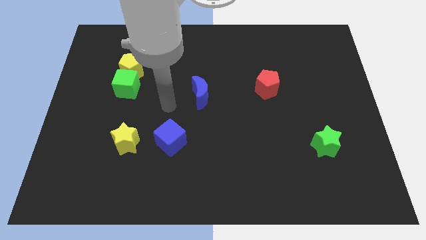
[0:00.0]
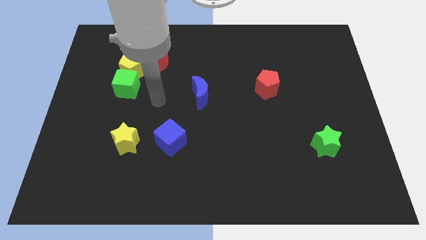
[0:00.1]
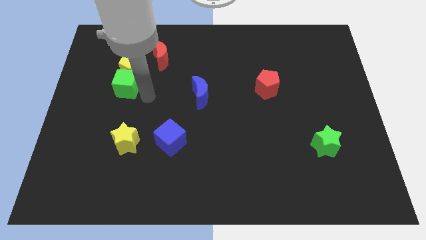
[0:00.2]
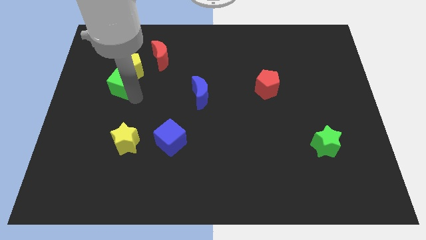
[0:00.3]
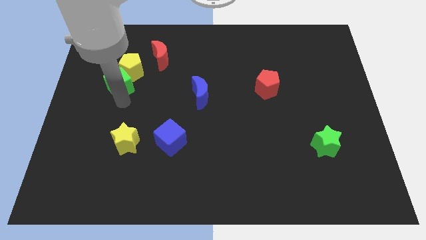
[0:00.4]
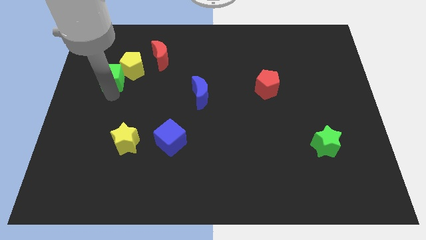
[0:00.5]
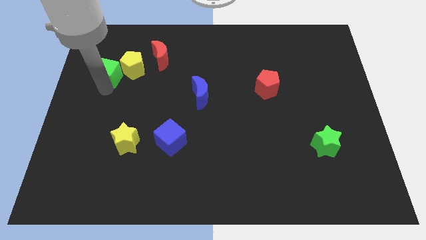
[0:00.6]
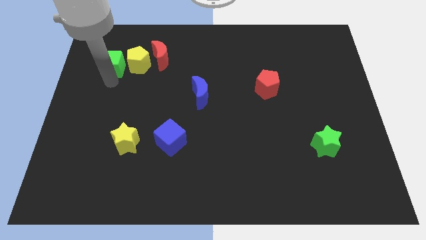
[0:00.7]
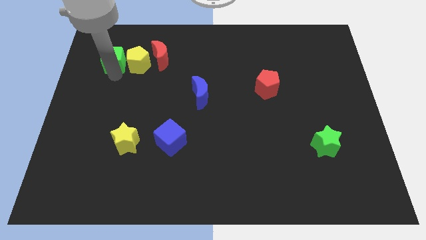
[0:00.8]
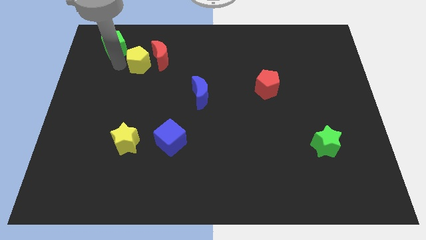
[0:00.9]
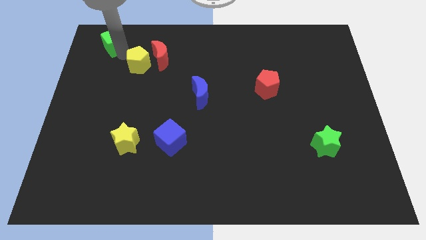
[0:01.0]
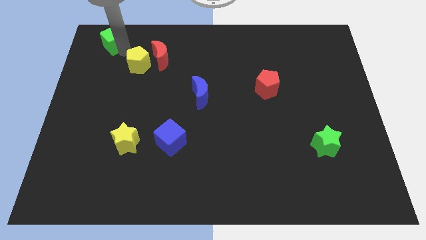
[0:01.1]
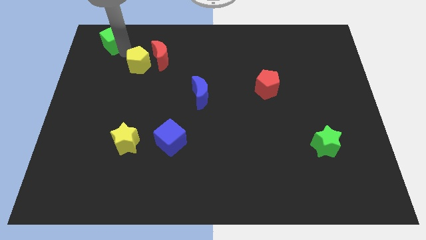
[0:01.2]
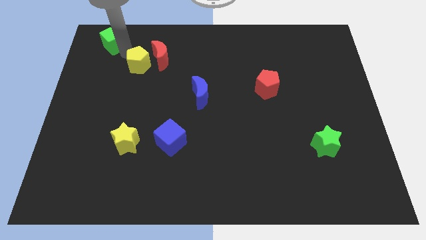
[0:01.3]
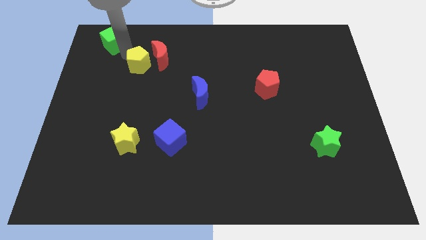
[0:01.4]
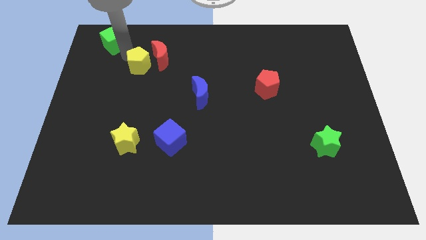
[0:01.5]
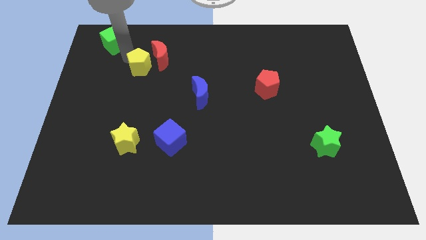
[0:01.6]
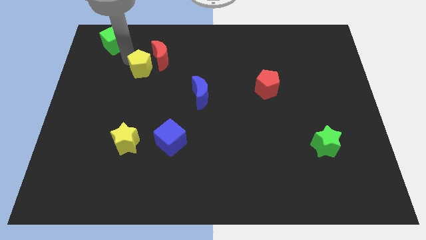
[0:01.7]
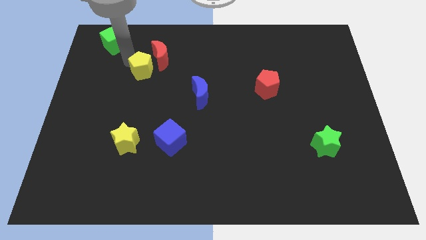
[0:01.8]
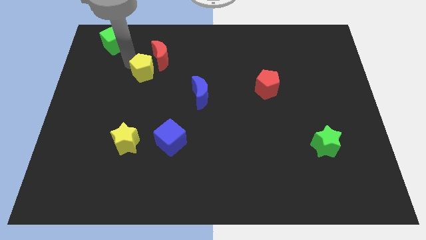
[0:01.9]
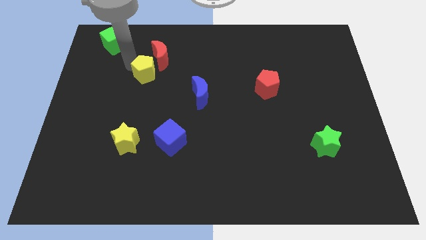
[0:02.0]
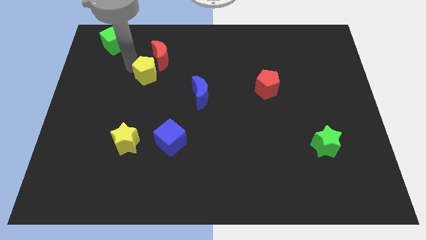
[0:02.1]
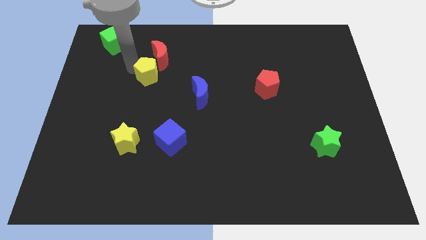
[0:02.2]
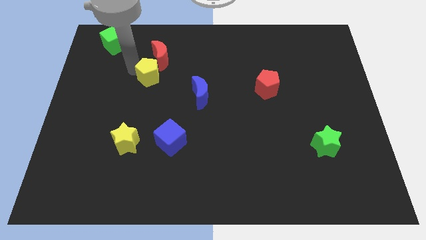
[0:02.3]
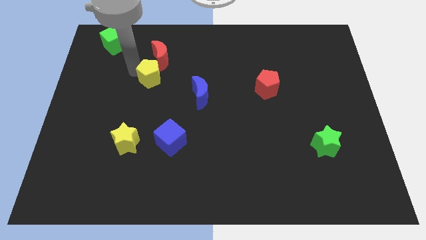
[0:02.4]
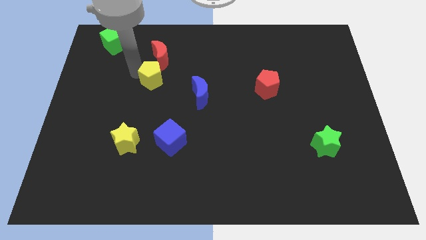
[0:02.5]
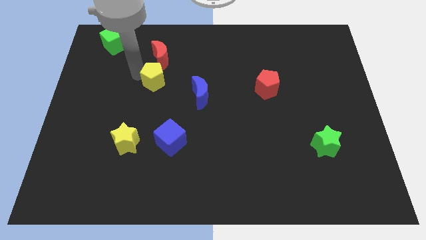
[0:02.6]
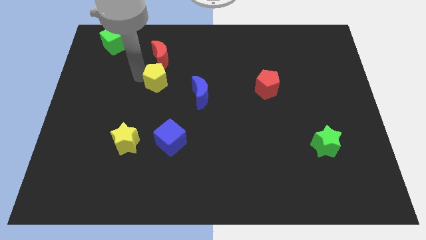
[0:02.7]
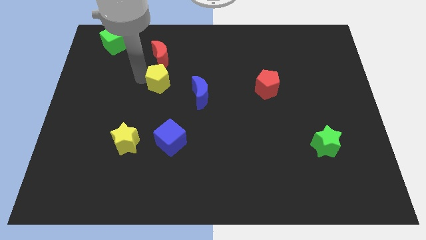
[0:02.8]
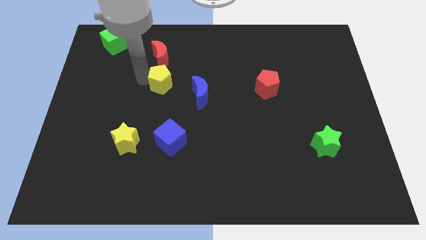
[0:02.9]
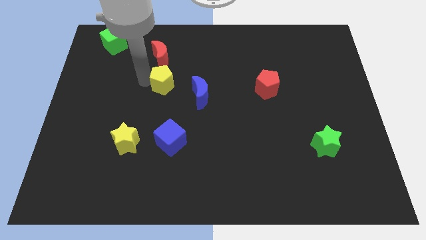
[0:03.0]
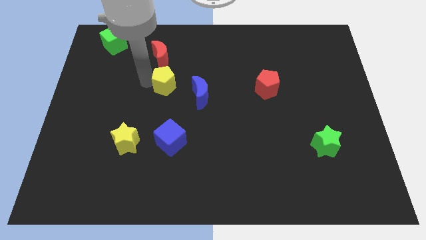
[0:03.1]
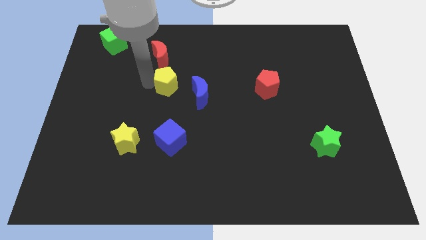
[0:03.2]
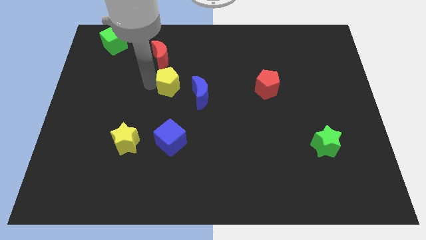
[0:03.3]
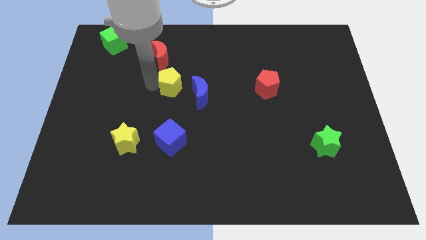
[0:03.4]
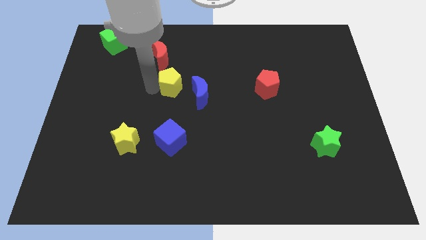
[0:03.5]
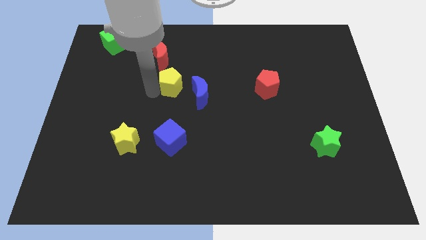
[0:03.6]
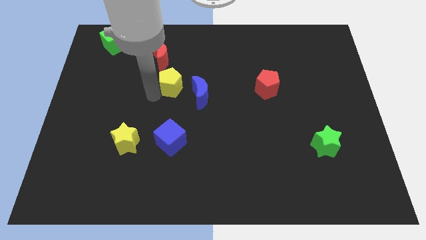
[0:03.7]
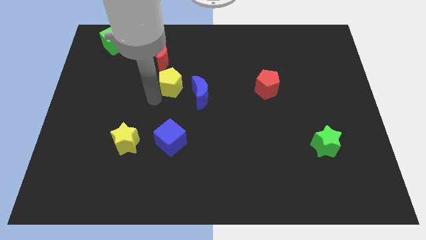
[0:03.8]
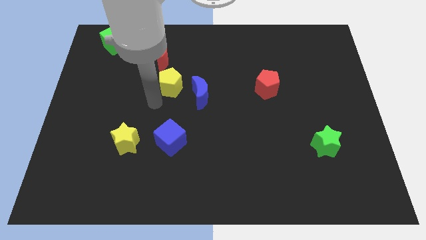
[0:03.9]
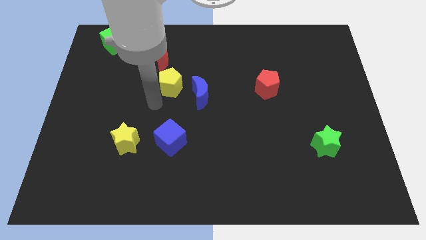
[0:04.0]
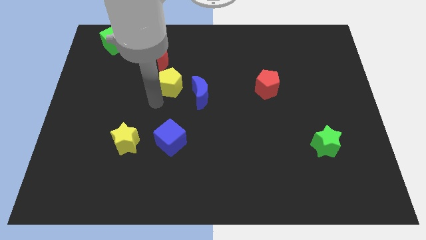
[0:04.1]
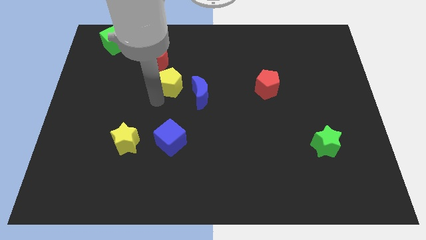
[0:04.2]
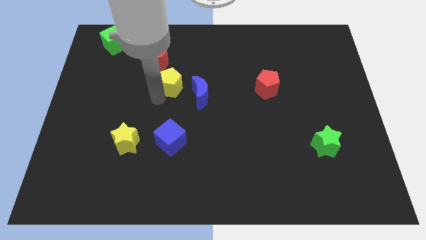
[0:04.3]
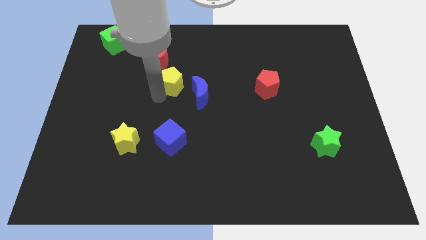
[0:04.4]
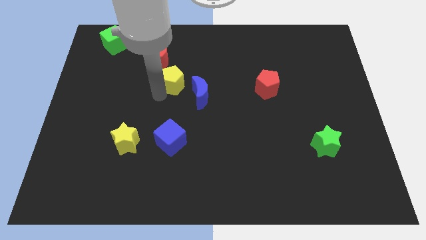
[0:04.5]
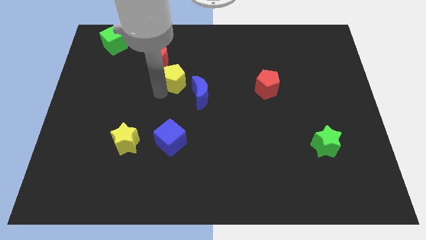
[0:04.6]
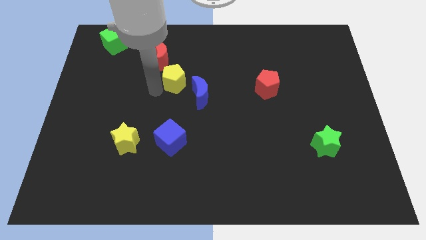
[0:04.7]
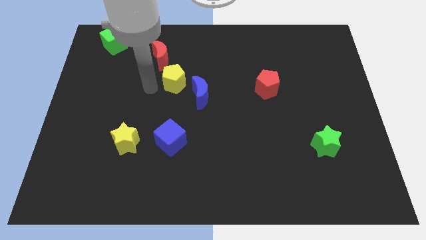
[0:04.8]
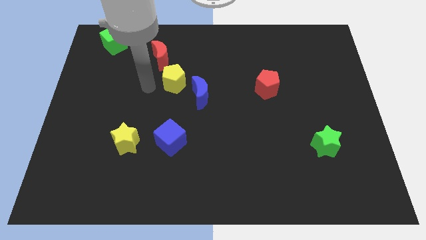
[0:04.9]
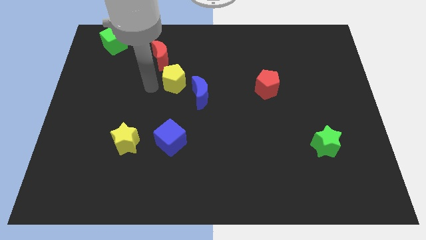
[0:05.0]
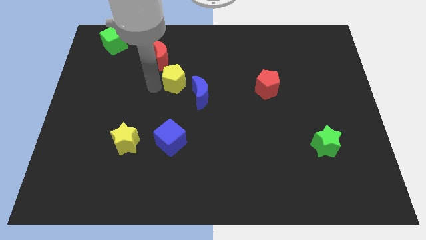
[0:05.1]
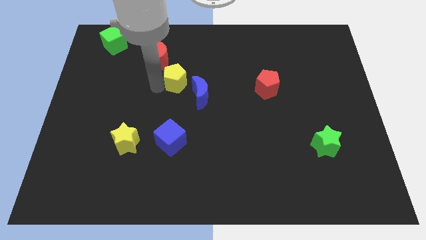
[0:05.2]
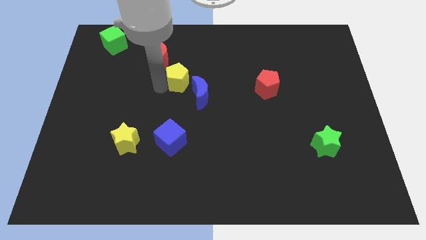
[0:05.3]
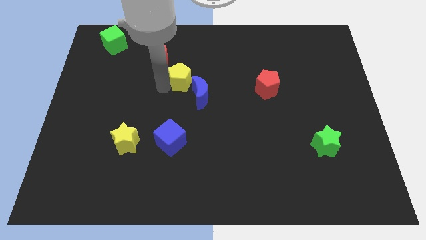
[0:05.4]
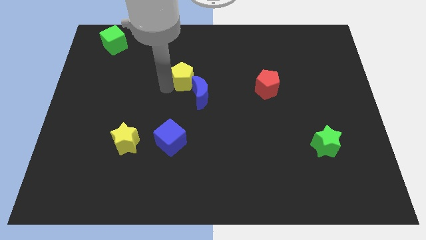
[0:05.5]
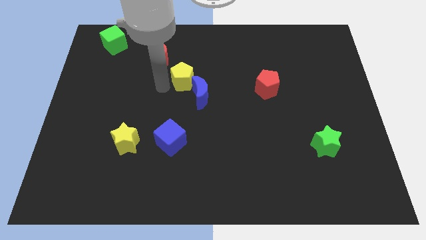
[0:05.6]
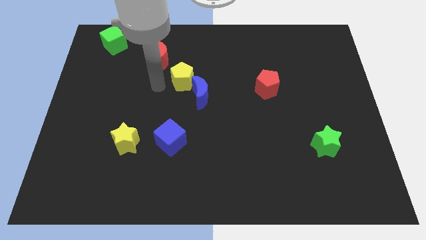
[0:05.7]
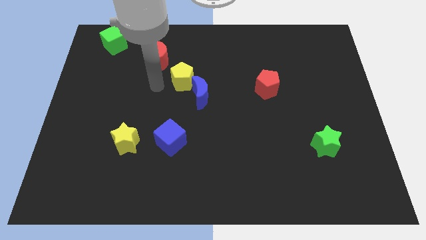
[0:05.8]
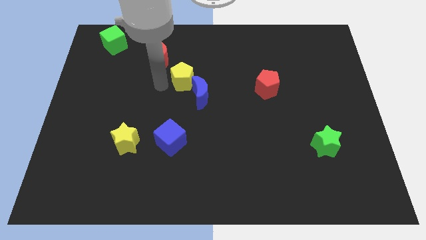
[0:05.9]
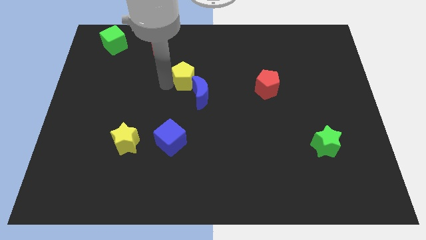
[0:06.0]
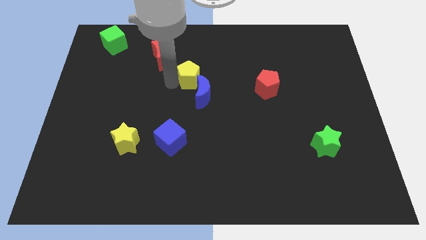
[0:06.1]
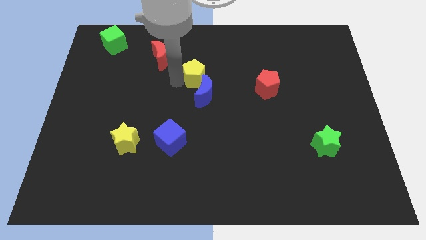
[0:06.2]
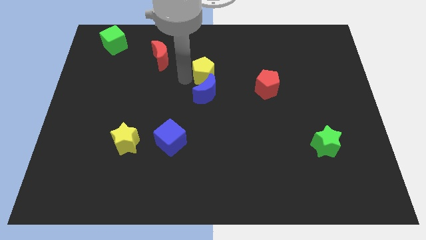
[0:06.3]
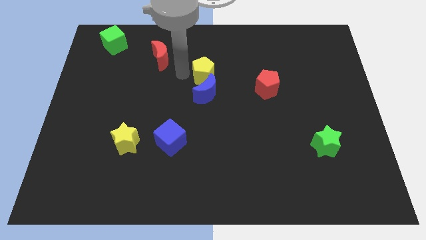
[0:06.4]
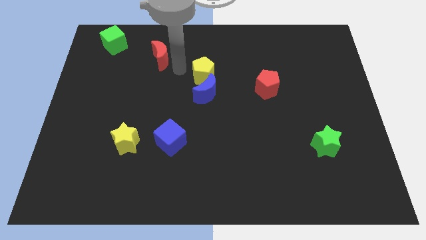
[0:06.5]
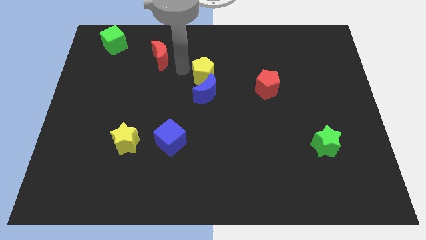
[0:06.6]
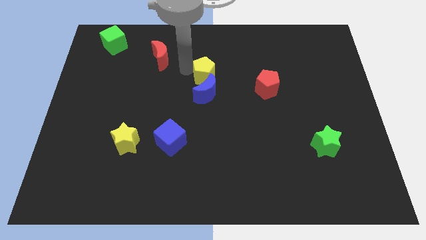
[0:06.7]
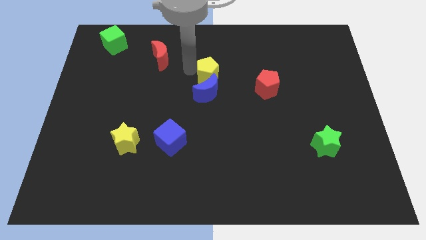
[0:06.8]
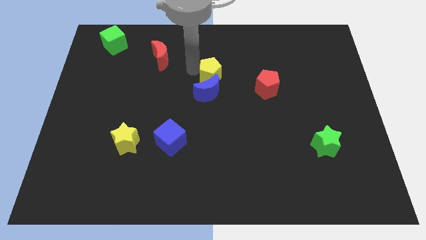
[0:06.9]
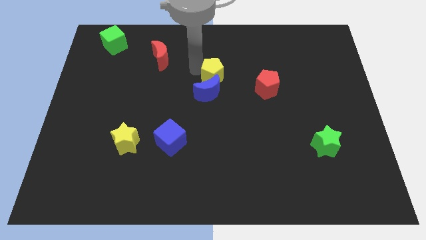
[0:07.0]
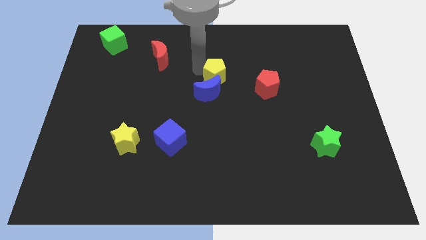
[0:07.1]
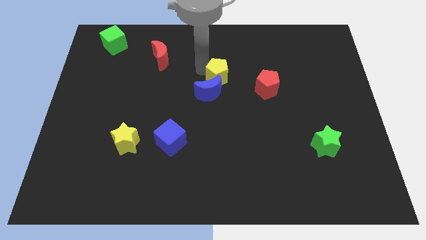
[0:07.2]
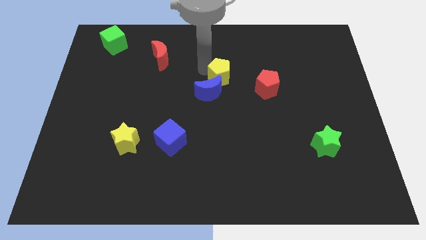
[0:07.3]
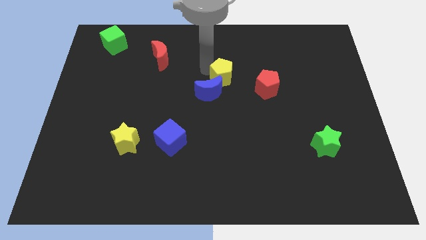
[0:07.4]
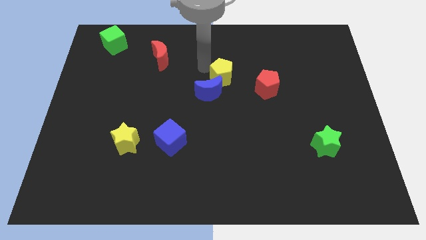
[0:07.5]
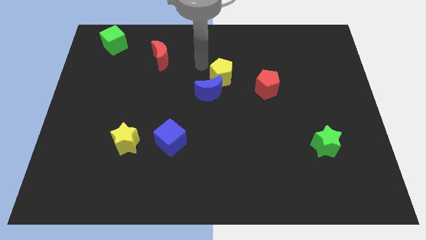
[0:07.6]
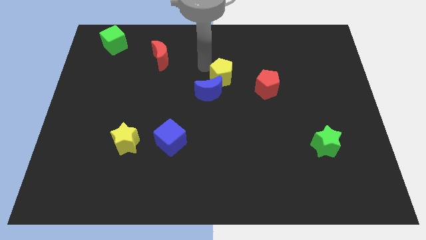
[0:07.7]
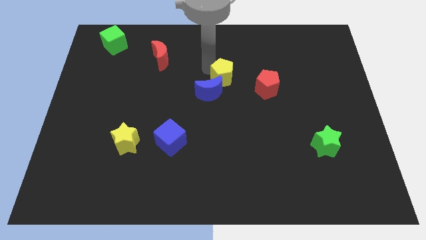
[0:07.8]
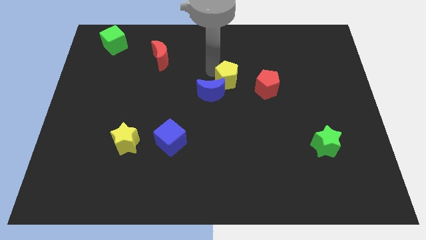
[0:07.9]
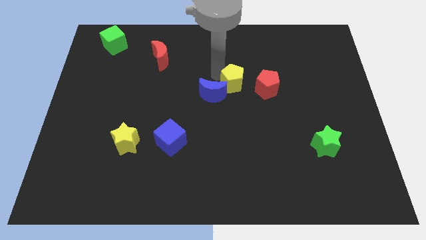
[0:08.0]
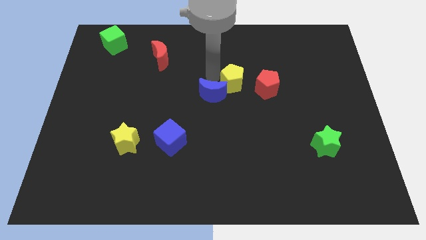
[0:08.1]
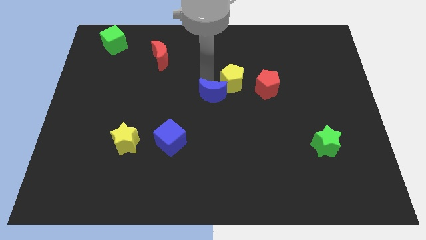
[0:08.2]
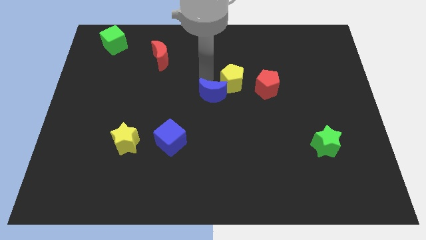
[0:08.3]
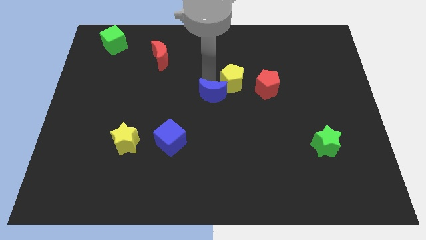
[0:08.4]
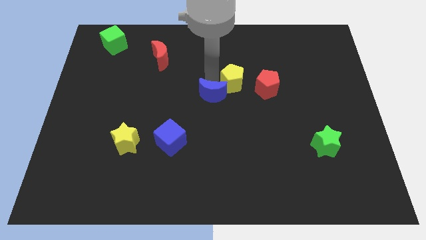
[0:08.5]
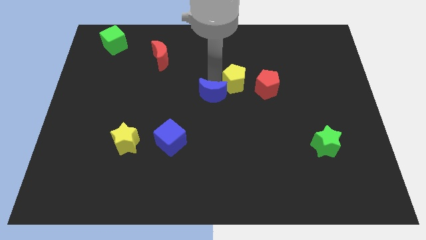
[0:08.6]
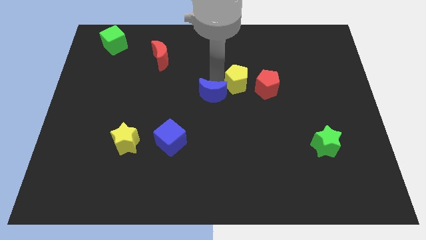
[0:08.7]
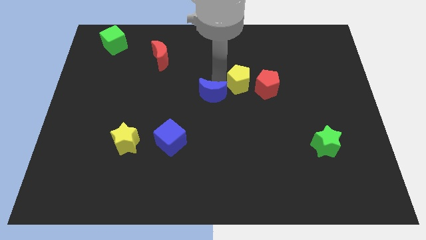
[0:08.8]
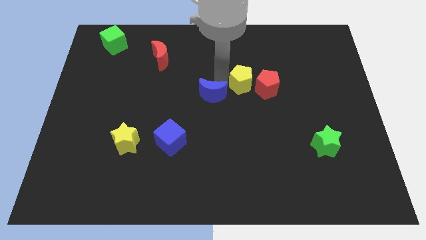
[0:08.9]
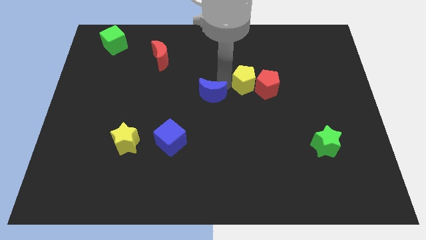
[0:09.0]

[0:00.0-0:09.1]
move the yellow pentagon to the red pentagon
